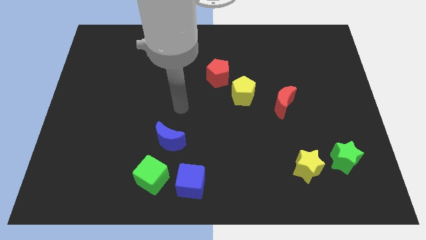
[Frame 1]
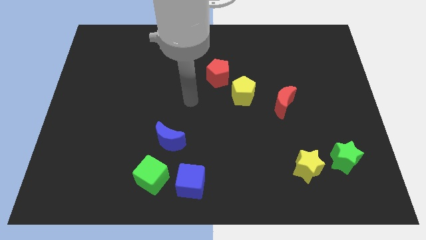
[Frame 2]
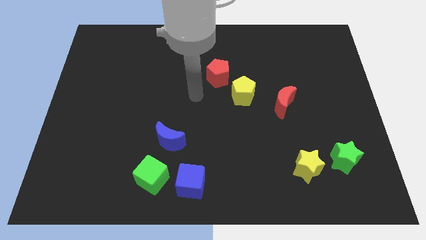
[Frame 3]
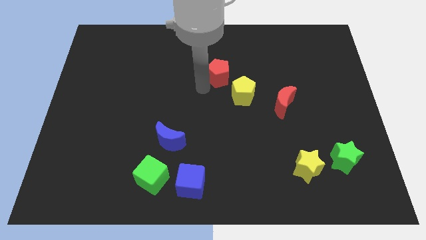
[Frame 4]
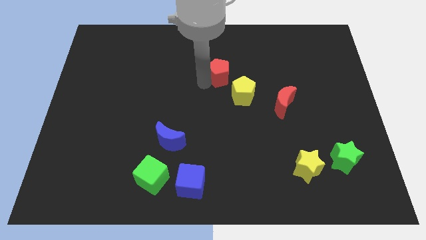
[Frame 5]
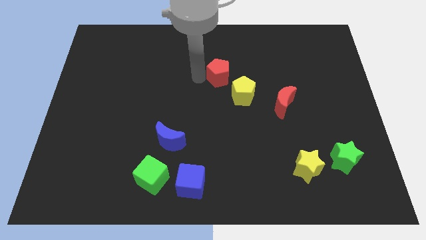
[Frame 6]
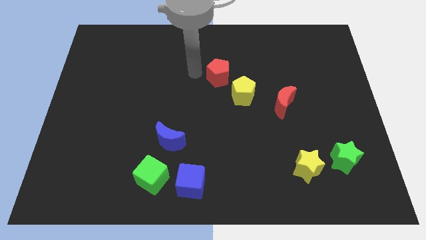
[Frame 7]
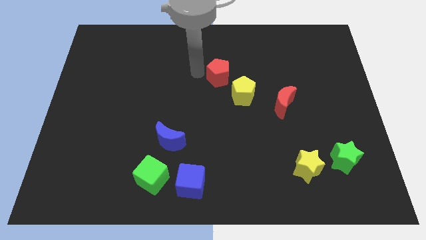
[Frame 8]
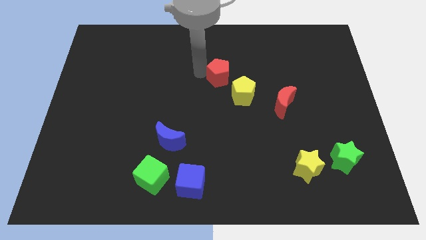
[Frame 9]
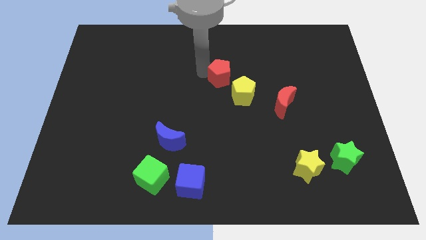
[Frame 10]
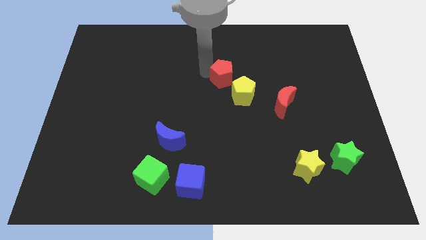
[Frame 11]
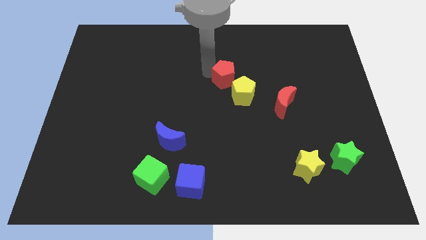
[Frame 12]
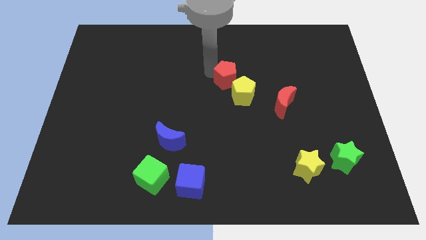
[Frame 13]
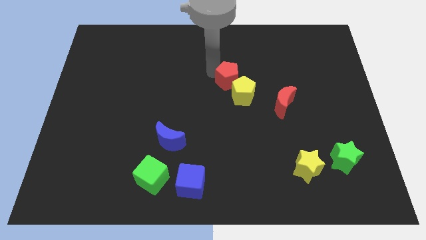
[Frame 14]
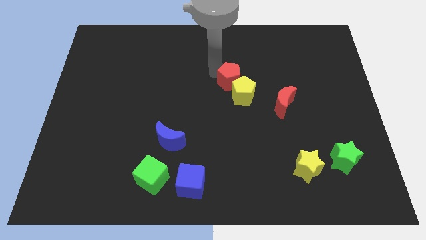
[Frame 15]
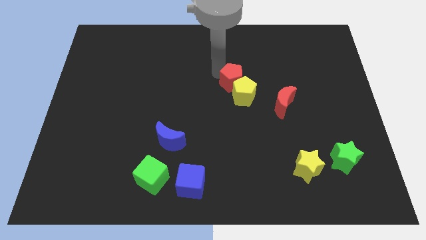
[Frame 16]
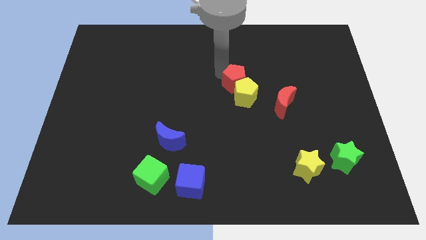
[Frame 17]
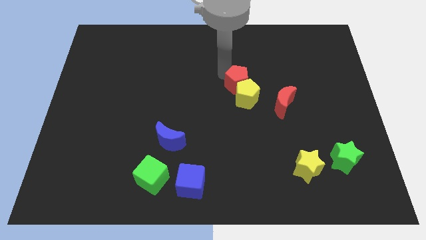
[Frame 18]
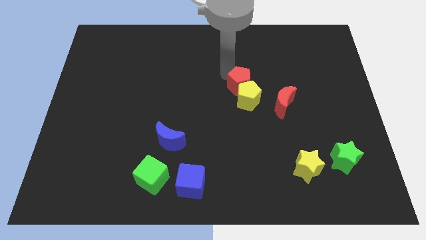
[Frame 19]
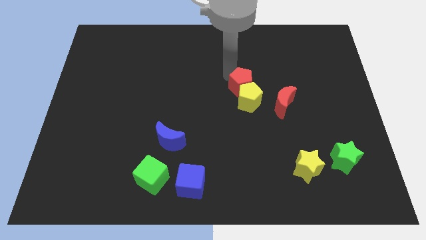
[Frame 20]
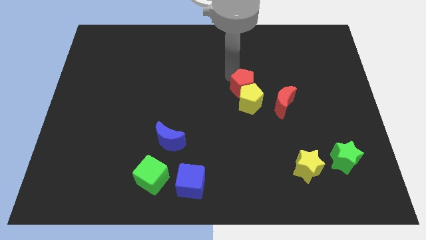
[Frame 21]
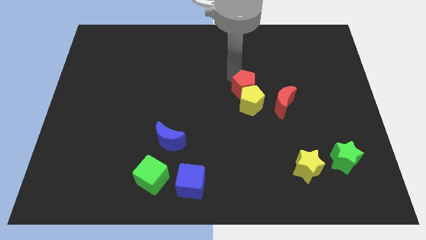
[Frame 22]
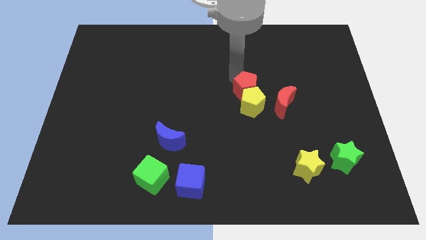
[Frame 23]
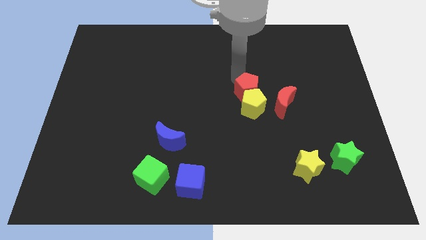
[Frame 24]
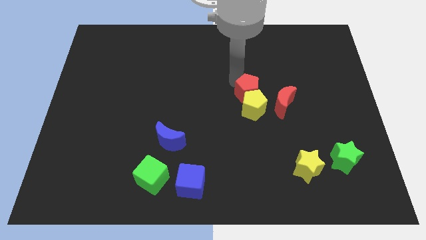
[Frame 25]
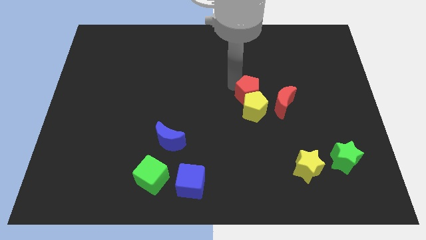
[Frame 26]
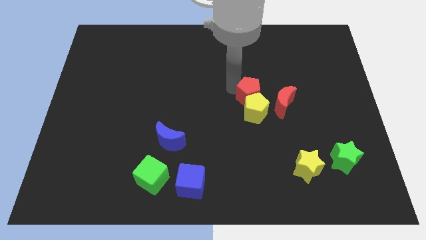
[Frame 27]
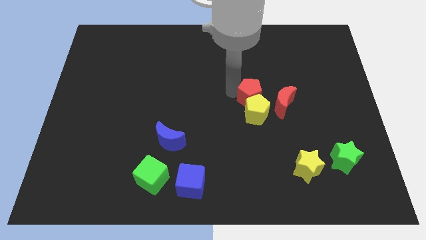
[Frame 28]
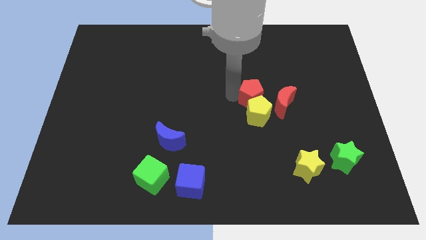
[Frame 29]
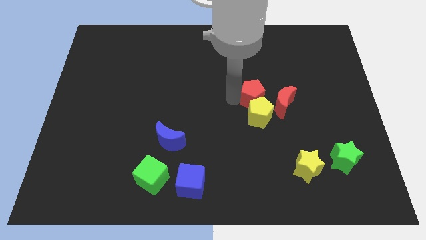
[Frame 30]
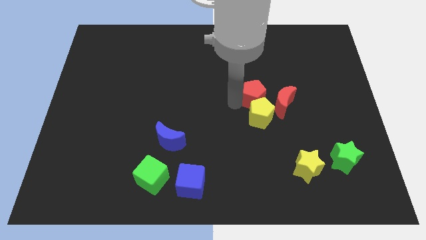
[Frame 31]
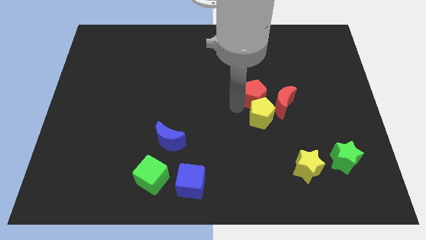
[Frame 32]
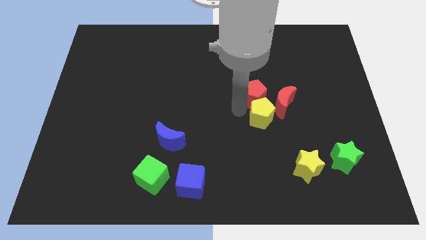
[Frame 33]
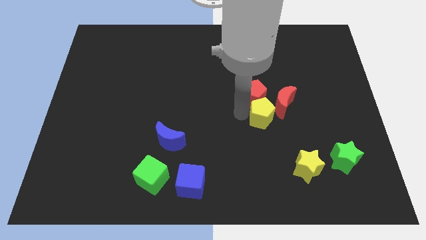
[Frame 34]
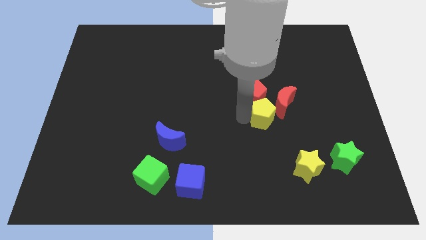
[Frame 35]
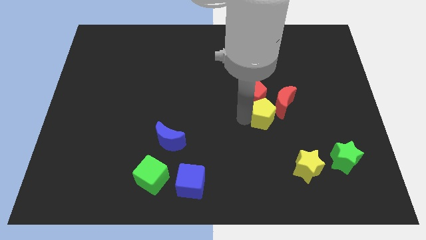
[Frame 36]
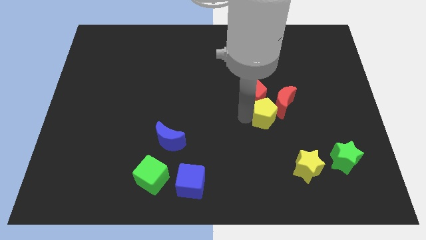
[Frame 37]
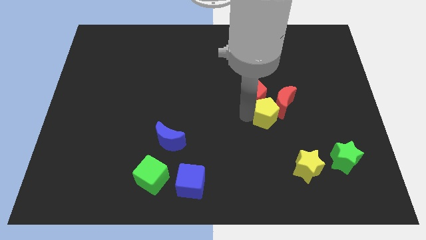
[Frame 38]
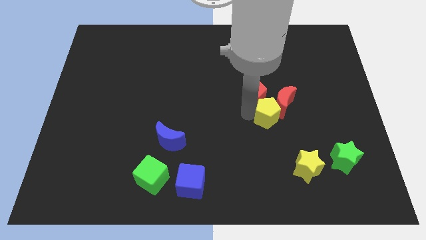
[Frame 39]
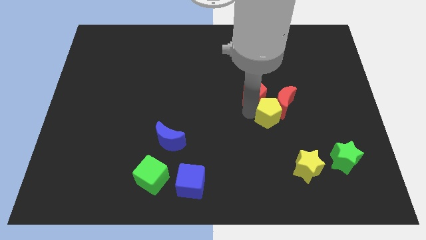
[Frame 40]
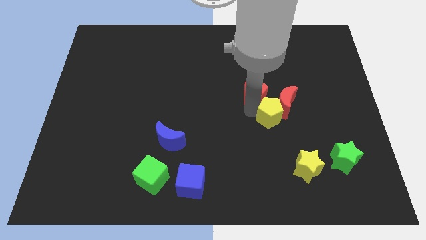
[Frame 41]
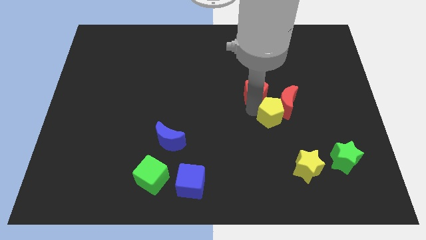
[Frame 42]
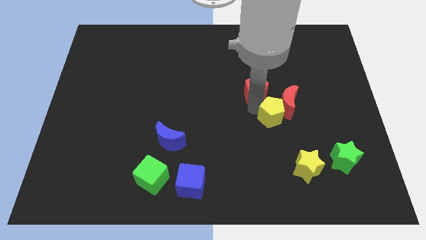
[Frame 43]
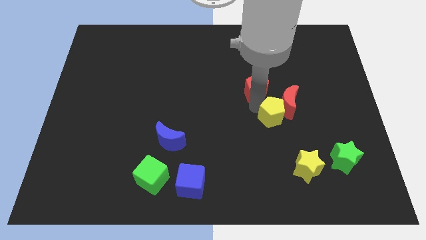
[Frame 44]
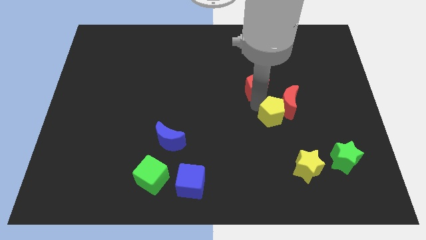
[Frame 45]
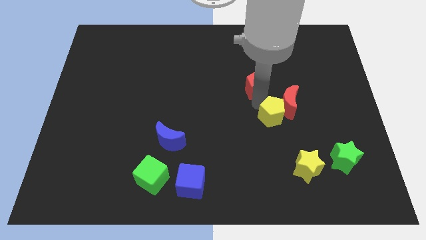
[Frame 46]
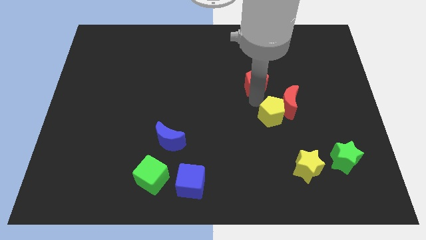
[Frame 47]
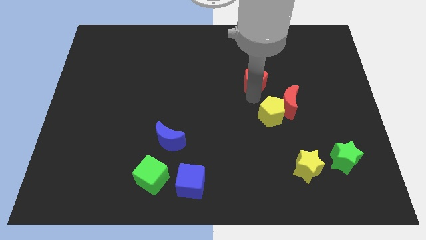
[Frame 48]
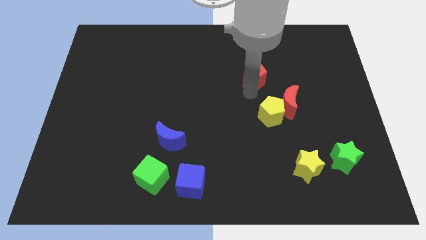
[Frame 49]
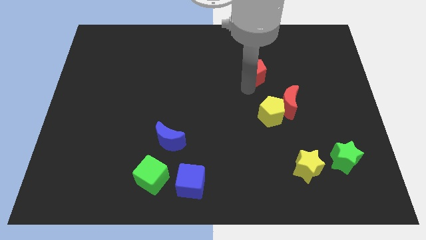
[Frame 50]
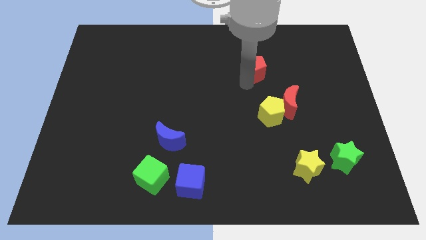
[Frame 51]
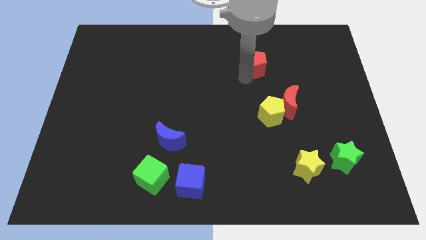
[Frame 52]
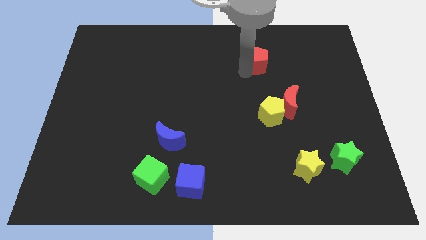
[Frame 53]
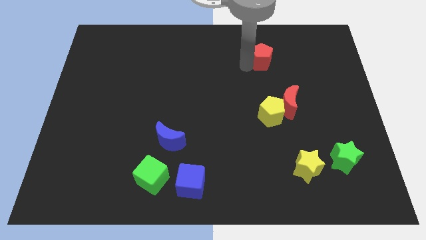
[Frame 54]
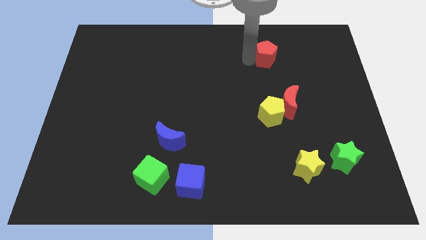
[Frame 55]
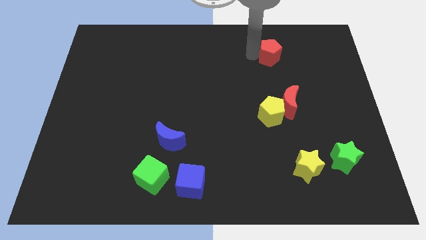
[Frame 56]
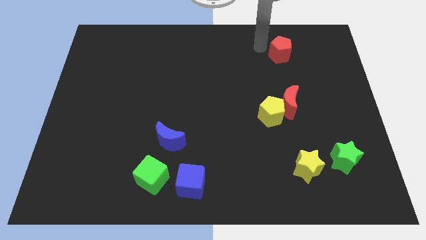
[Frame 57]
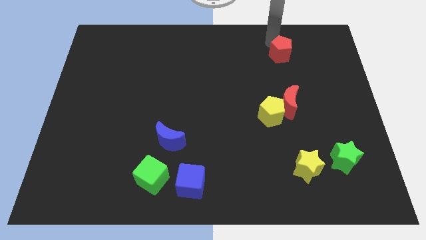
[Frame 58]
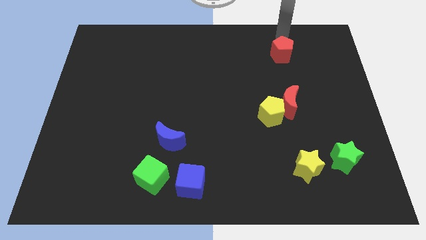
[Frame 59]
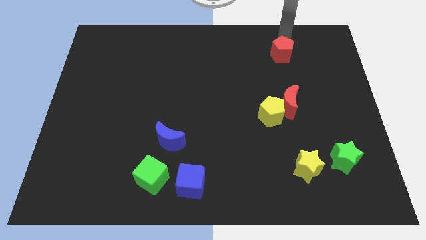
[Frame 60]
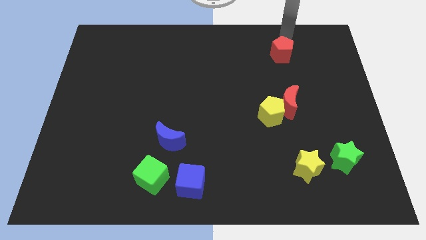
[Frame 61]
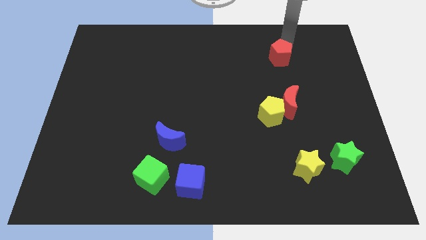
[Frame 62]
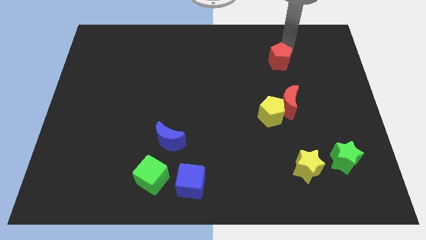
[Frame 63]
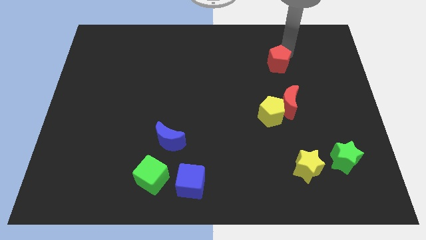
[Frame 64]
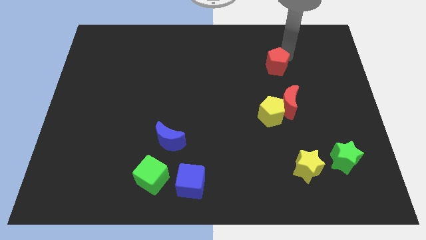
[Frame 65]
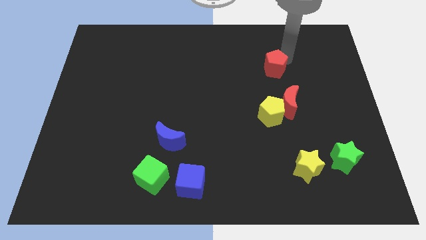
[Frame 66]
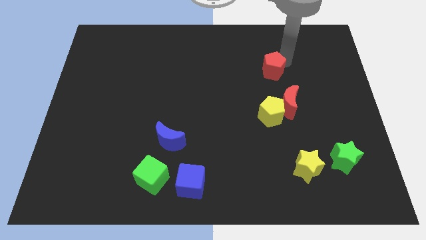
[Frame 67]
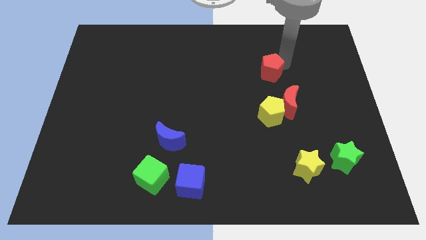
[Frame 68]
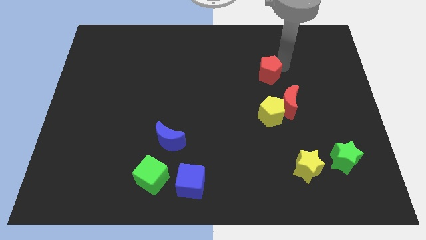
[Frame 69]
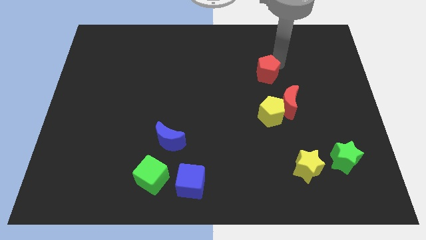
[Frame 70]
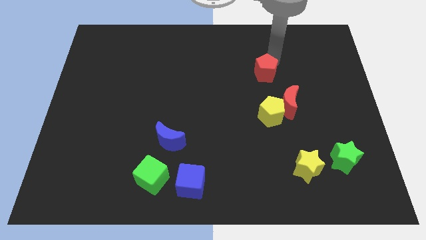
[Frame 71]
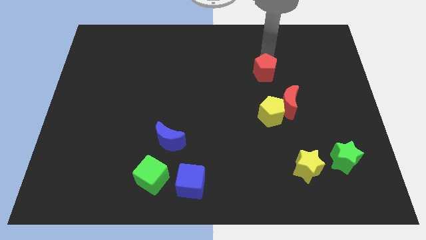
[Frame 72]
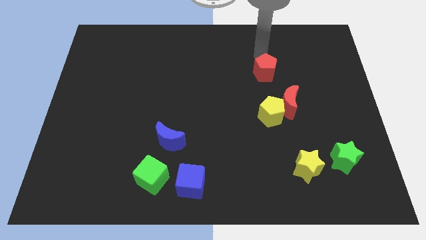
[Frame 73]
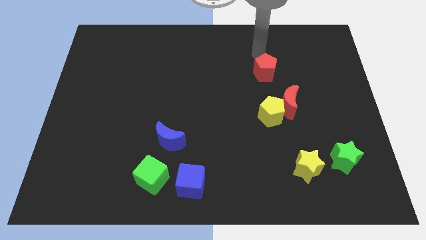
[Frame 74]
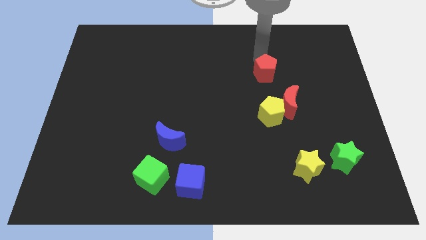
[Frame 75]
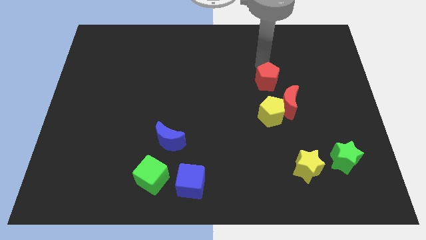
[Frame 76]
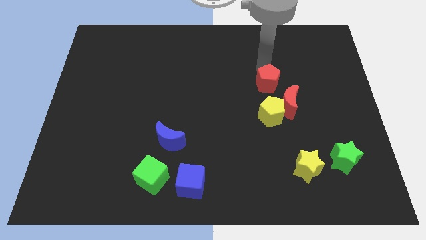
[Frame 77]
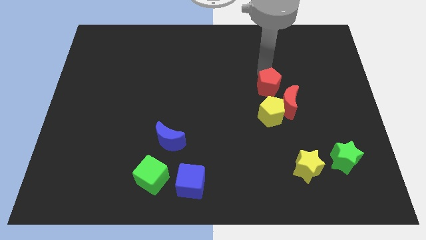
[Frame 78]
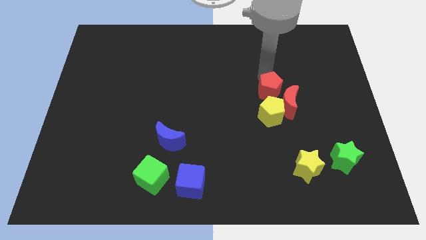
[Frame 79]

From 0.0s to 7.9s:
push the red pentagon close to the red moon
